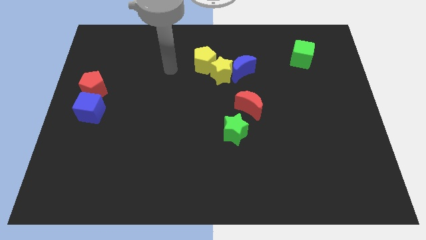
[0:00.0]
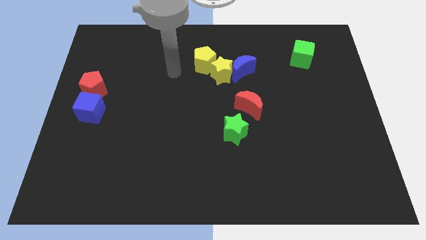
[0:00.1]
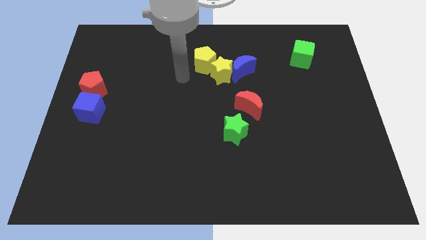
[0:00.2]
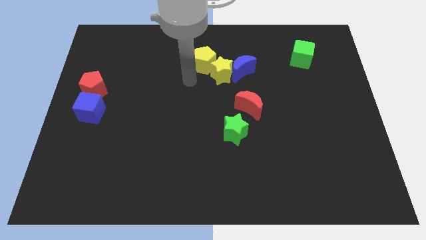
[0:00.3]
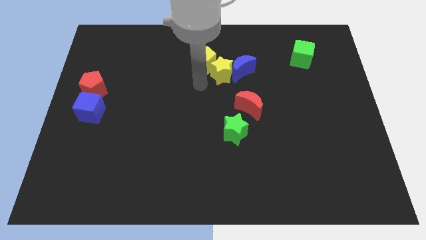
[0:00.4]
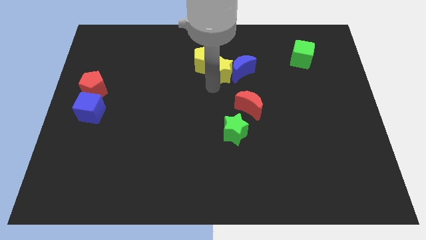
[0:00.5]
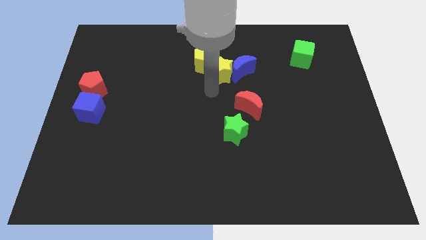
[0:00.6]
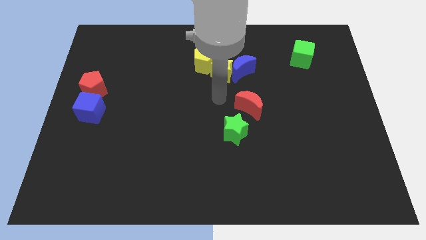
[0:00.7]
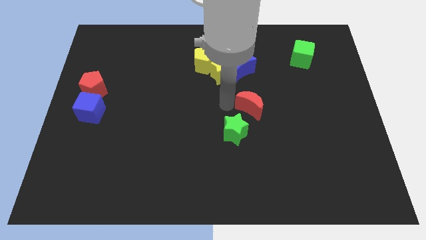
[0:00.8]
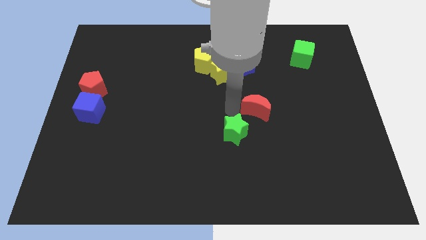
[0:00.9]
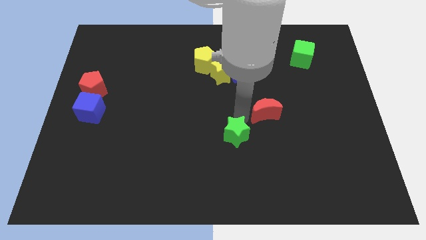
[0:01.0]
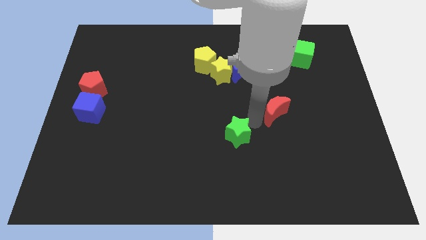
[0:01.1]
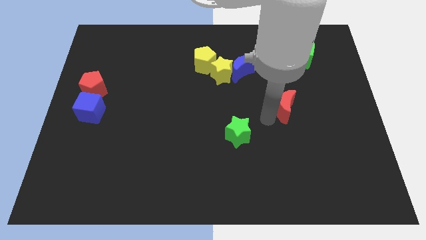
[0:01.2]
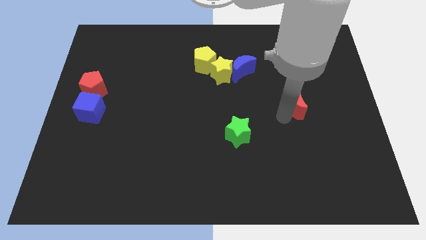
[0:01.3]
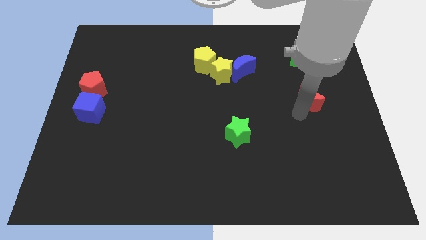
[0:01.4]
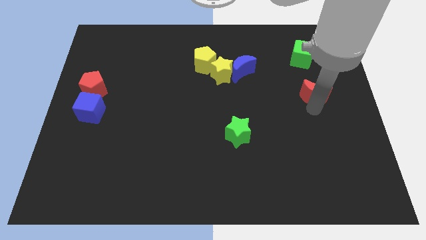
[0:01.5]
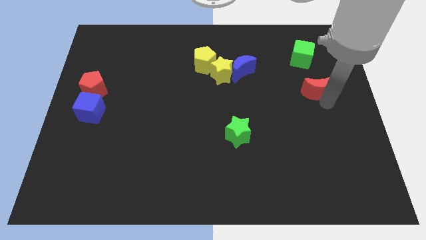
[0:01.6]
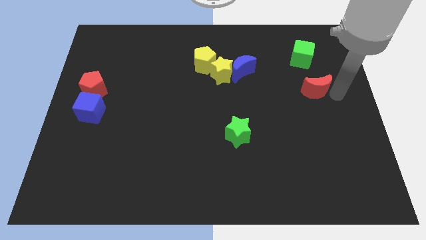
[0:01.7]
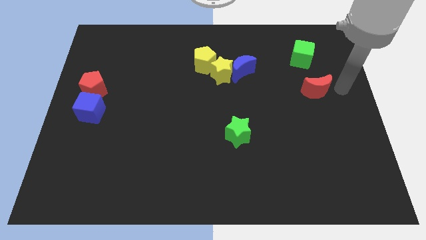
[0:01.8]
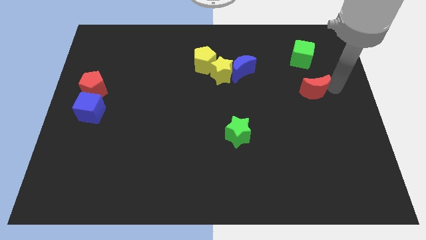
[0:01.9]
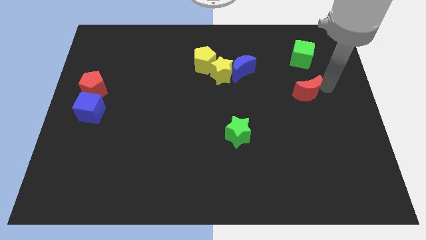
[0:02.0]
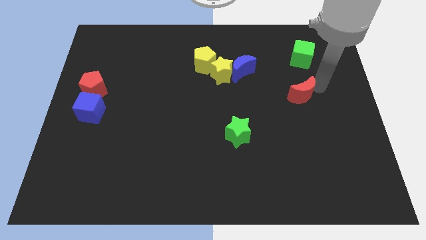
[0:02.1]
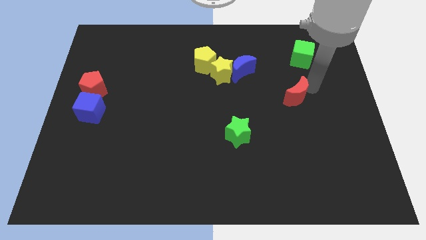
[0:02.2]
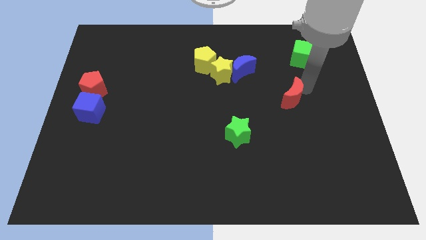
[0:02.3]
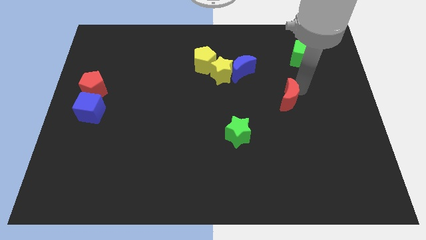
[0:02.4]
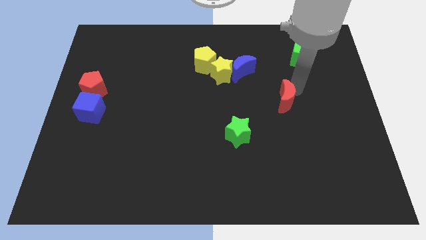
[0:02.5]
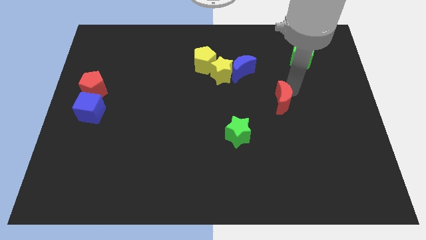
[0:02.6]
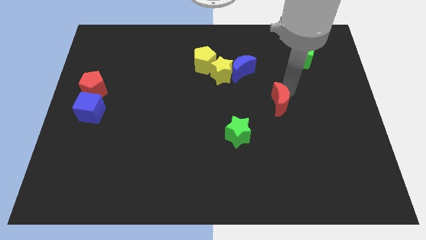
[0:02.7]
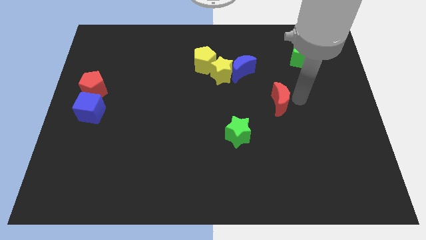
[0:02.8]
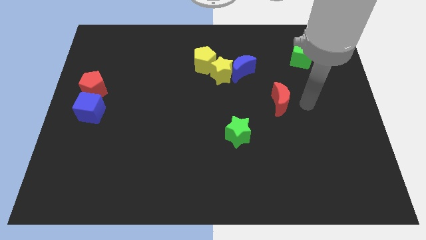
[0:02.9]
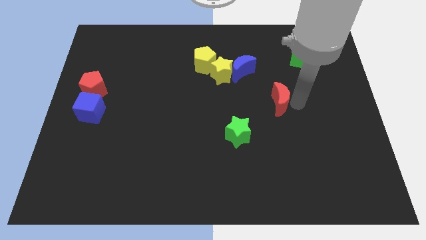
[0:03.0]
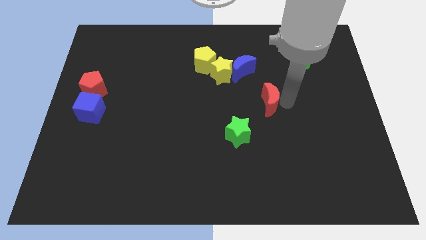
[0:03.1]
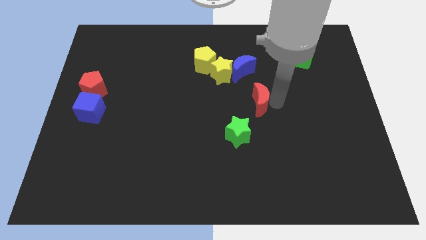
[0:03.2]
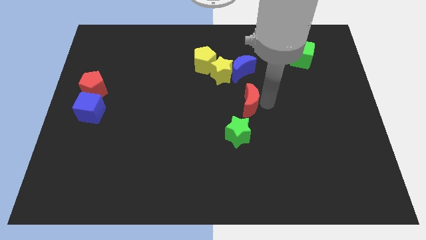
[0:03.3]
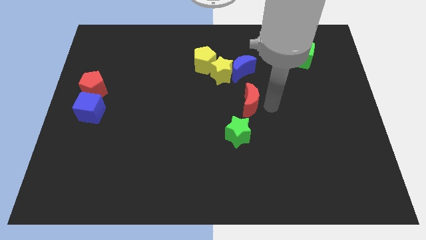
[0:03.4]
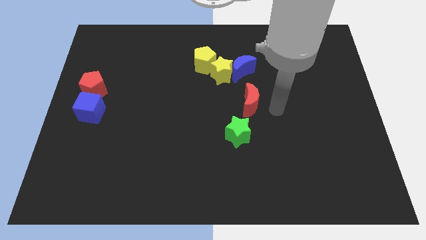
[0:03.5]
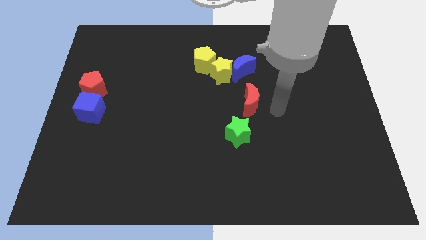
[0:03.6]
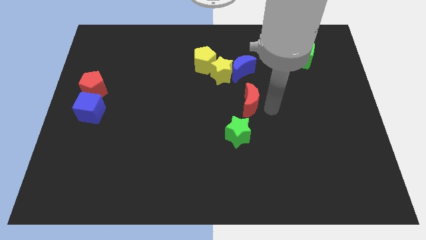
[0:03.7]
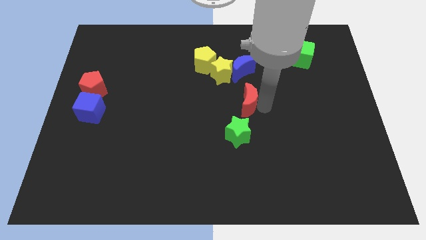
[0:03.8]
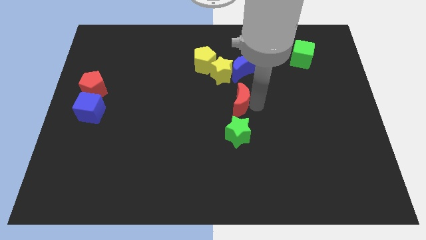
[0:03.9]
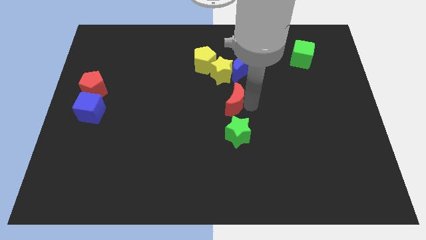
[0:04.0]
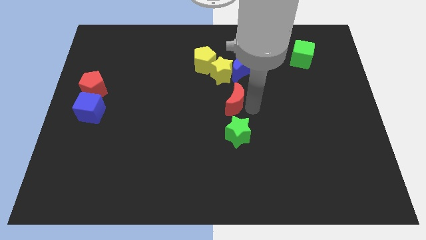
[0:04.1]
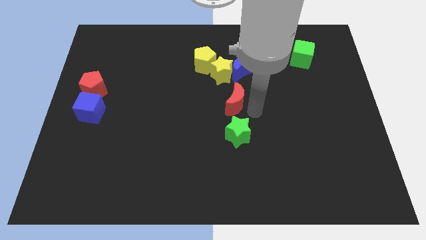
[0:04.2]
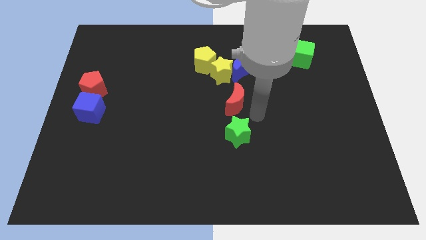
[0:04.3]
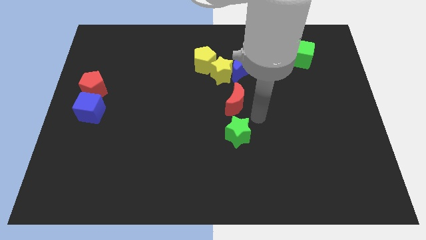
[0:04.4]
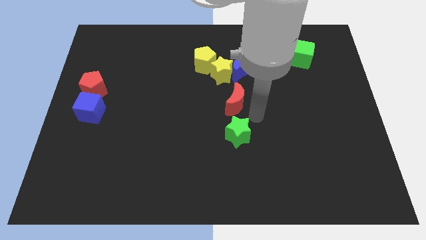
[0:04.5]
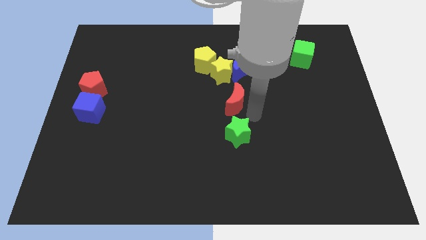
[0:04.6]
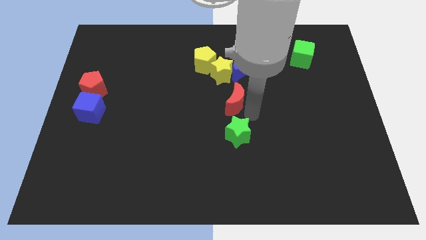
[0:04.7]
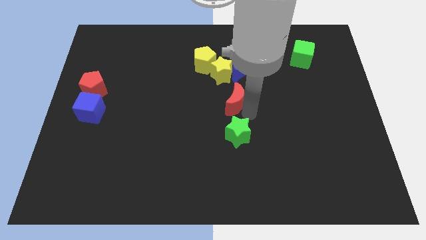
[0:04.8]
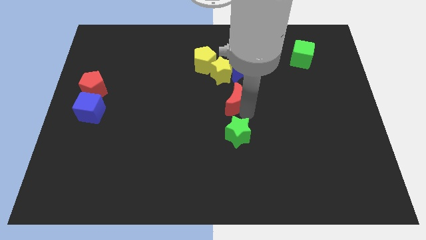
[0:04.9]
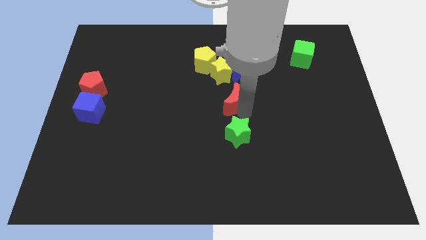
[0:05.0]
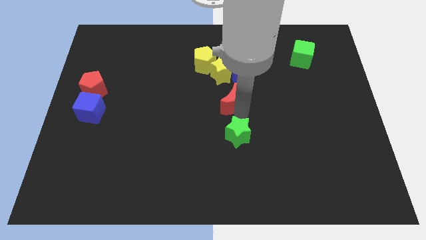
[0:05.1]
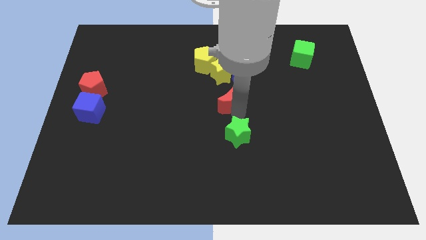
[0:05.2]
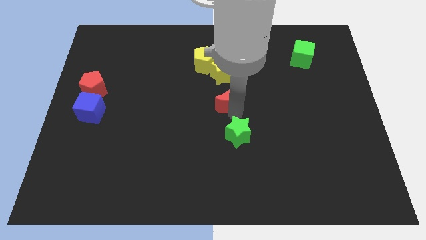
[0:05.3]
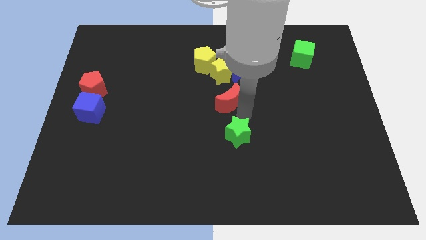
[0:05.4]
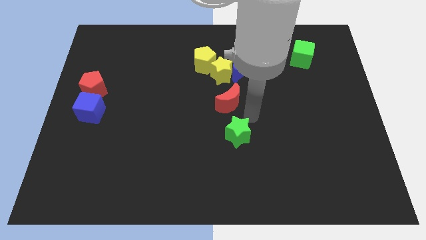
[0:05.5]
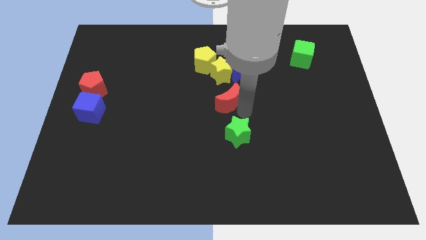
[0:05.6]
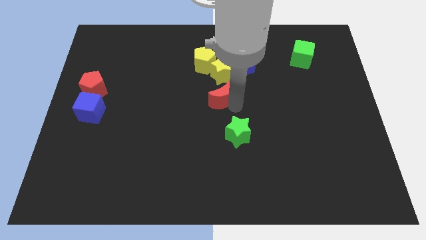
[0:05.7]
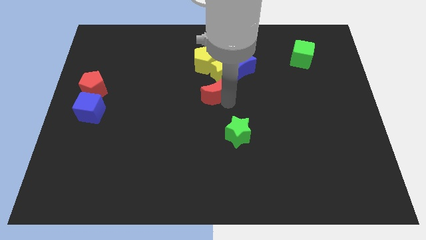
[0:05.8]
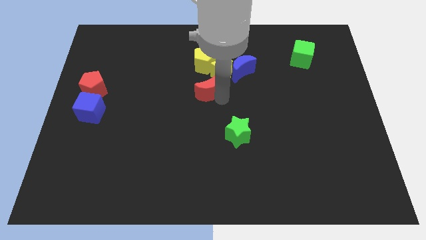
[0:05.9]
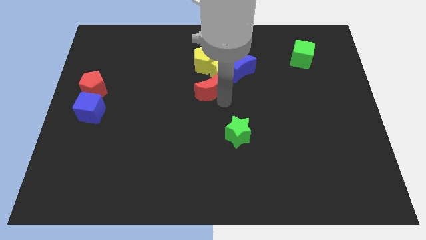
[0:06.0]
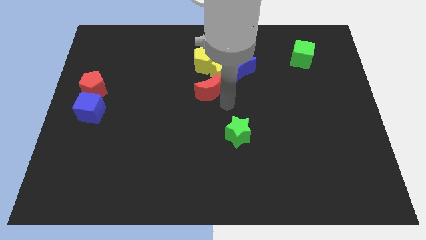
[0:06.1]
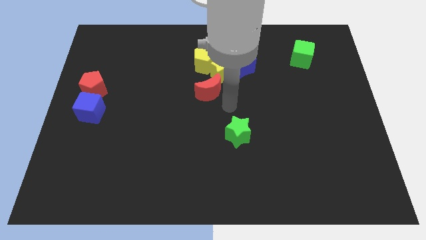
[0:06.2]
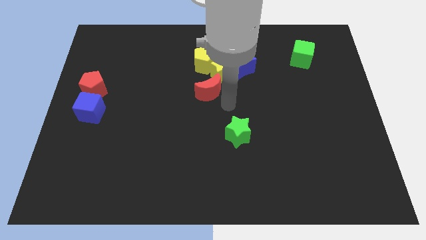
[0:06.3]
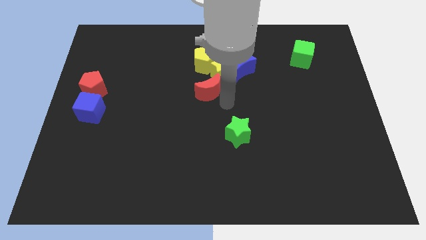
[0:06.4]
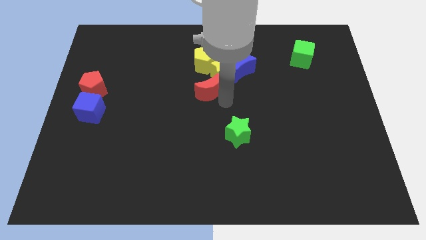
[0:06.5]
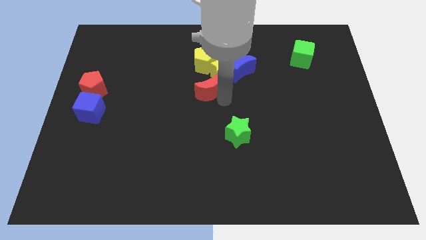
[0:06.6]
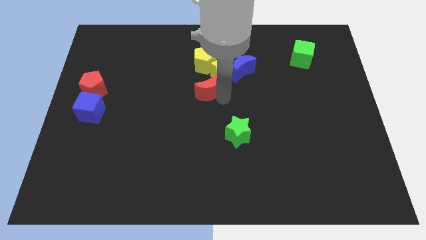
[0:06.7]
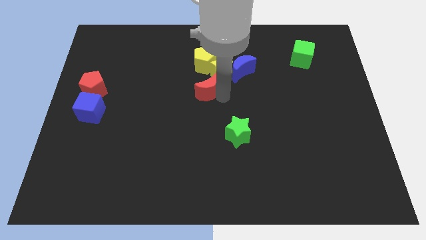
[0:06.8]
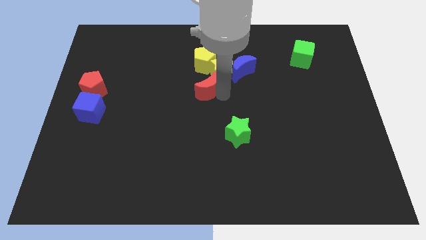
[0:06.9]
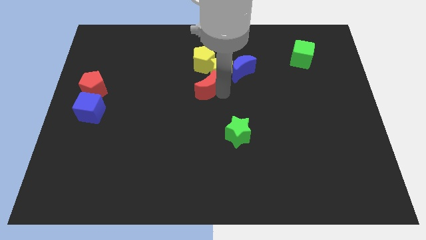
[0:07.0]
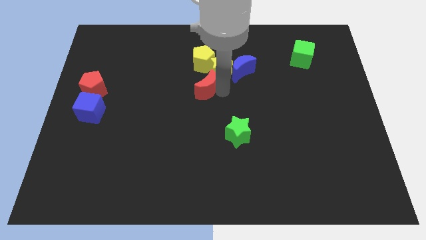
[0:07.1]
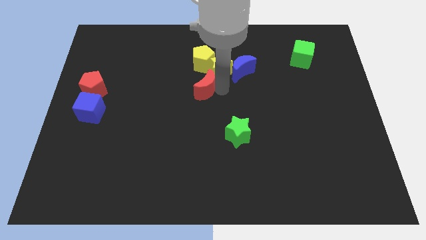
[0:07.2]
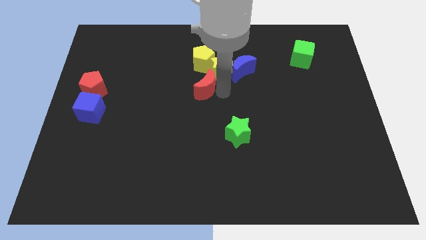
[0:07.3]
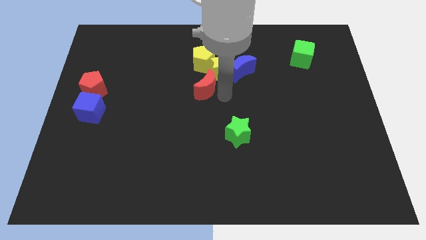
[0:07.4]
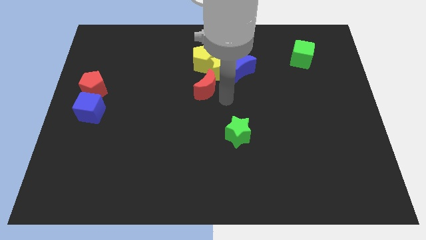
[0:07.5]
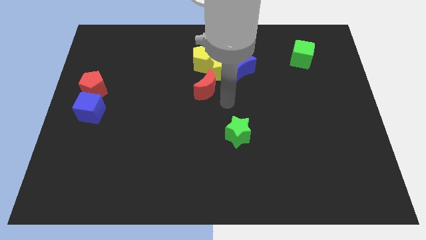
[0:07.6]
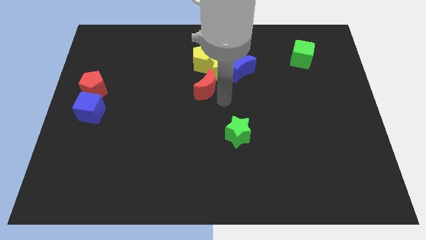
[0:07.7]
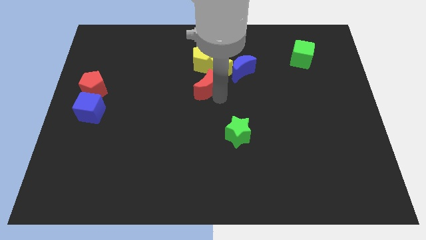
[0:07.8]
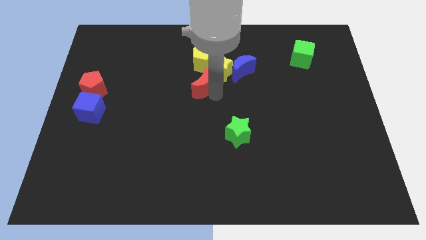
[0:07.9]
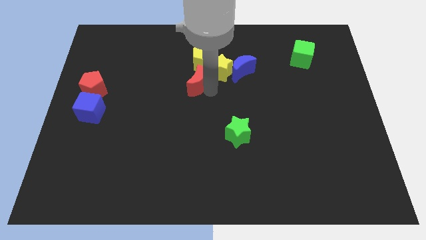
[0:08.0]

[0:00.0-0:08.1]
put the red moon to the bottom left of the yellow pentagon

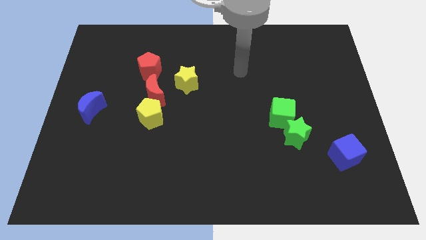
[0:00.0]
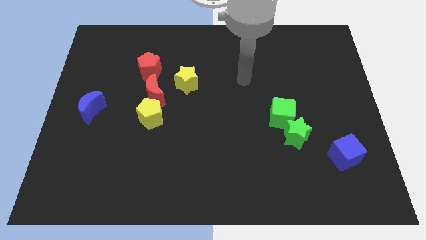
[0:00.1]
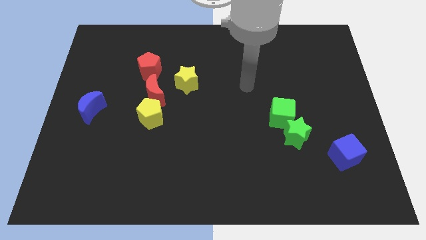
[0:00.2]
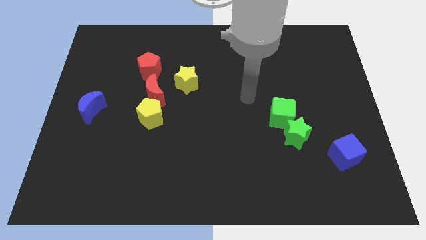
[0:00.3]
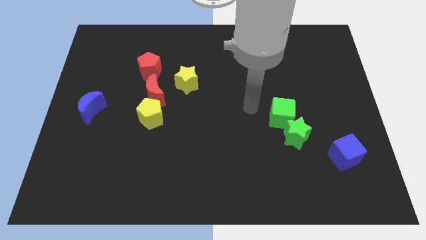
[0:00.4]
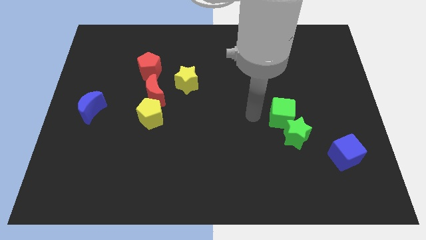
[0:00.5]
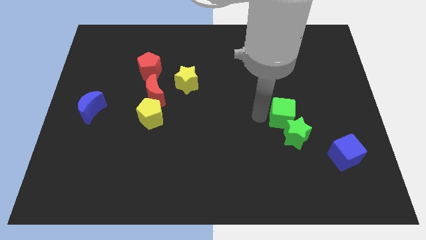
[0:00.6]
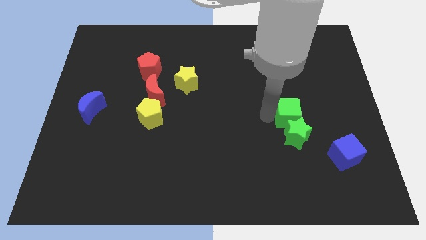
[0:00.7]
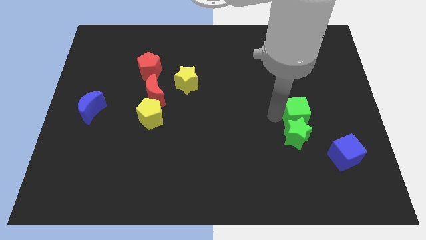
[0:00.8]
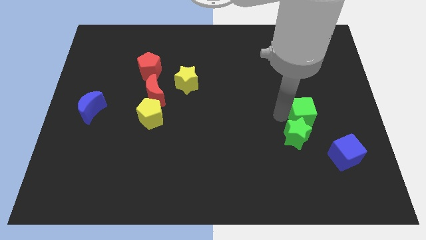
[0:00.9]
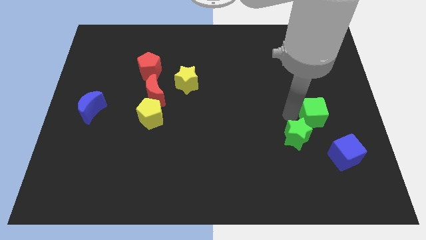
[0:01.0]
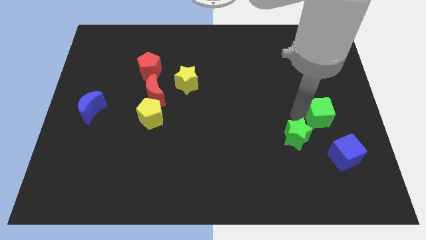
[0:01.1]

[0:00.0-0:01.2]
push the green cube to the top side of the blue cube
